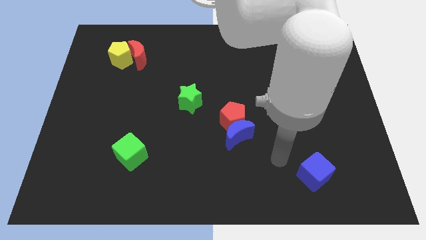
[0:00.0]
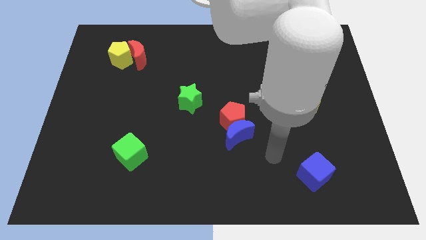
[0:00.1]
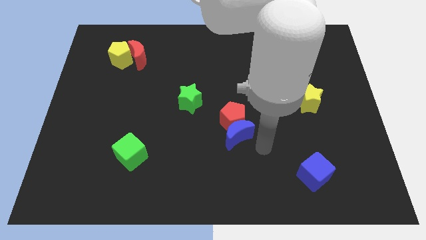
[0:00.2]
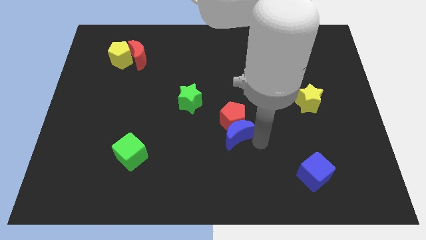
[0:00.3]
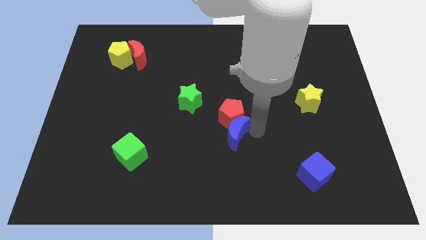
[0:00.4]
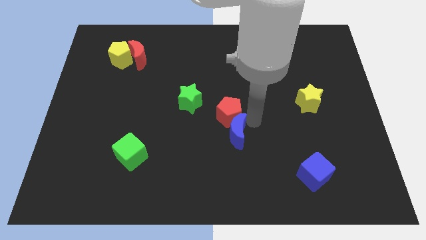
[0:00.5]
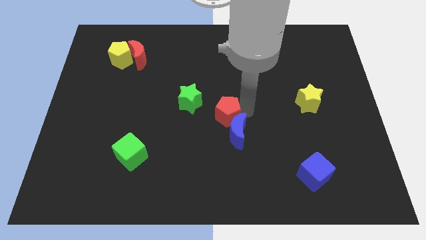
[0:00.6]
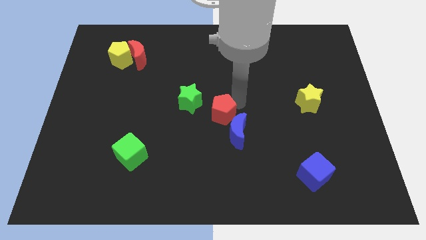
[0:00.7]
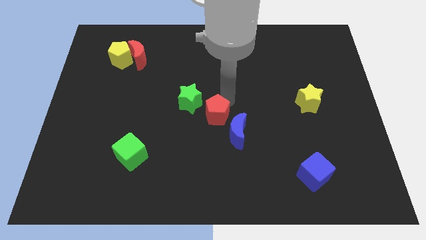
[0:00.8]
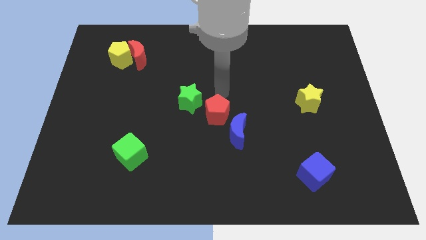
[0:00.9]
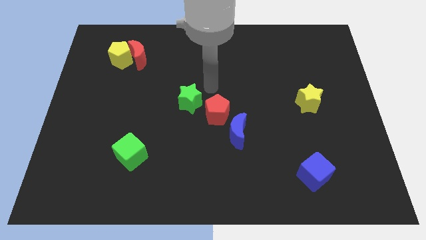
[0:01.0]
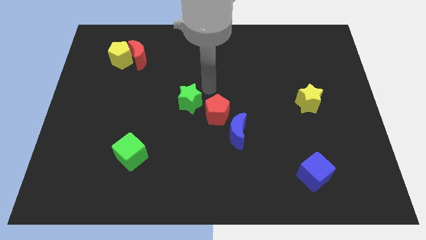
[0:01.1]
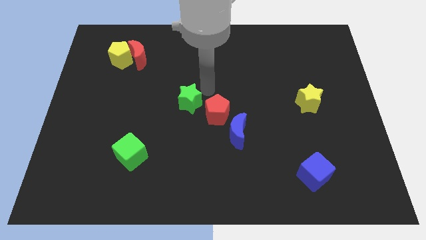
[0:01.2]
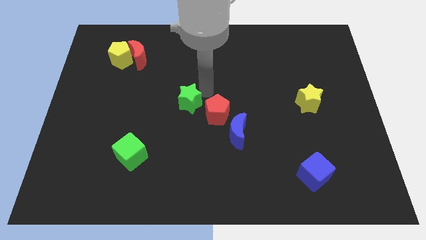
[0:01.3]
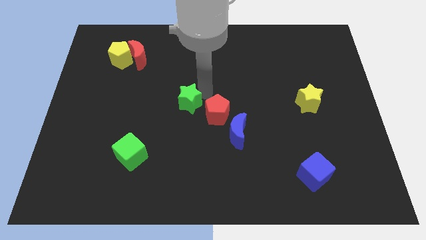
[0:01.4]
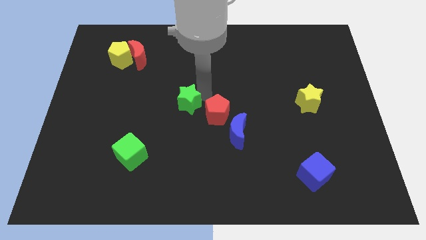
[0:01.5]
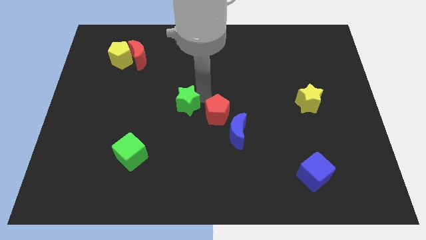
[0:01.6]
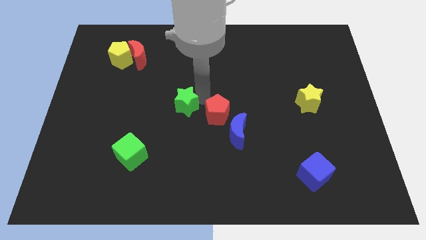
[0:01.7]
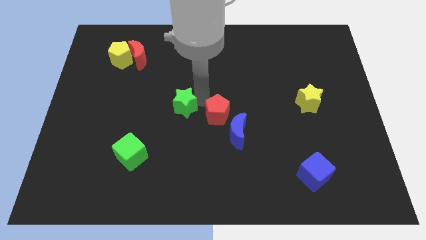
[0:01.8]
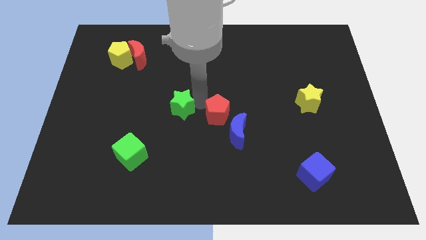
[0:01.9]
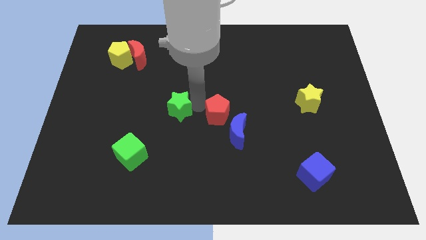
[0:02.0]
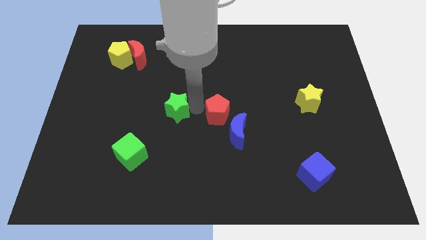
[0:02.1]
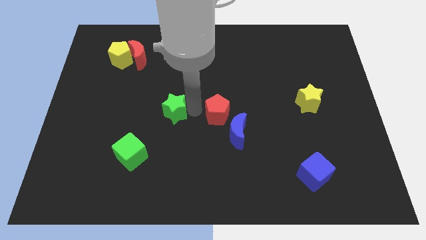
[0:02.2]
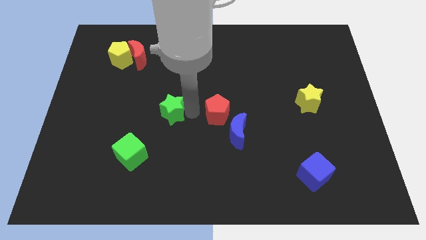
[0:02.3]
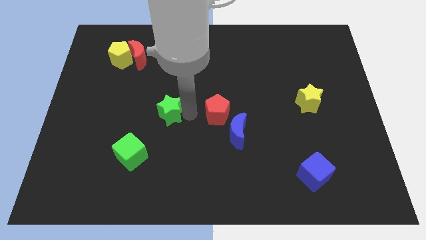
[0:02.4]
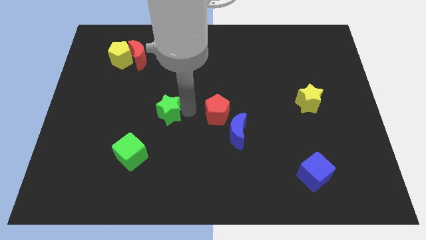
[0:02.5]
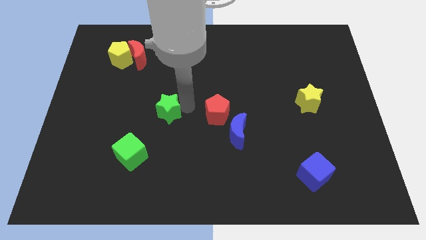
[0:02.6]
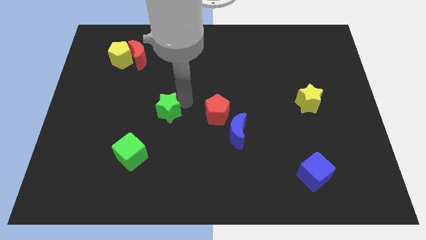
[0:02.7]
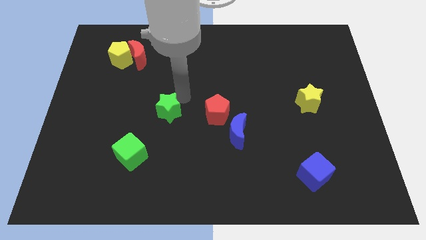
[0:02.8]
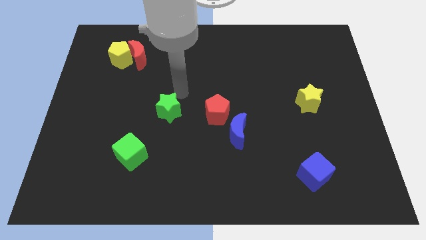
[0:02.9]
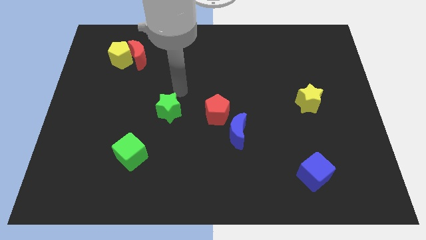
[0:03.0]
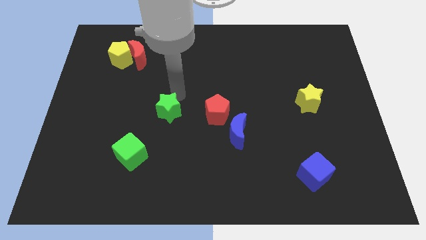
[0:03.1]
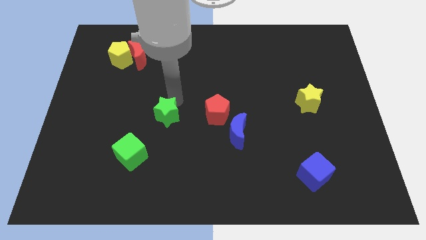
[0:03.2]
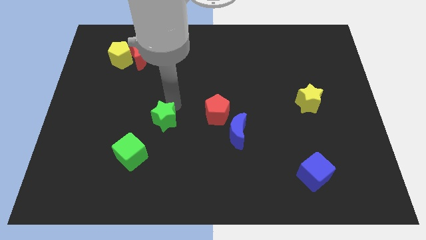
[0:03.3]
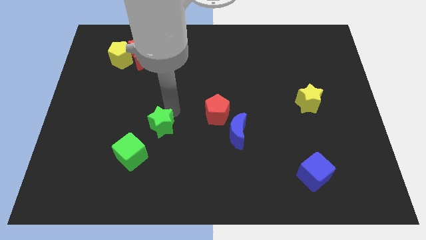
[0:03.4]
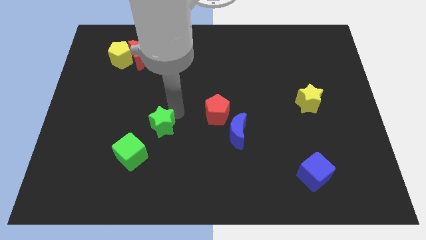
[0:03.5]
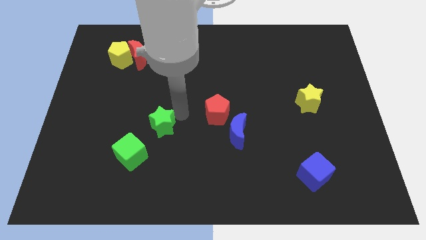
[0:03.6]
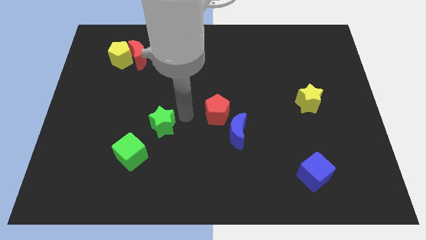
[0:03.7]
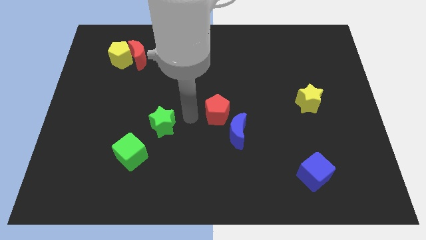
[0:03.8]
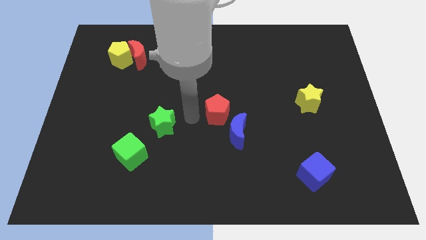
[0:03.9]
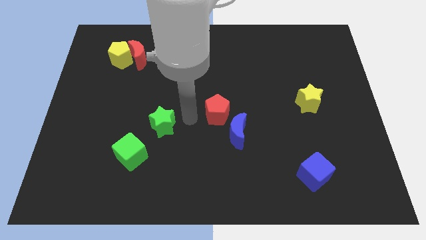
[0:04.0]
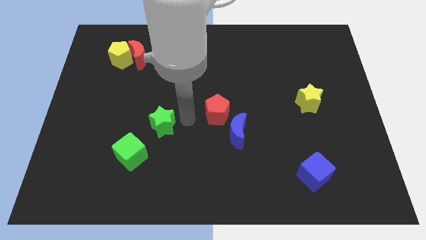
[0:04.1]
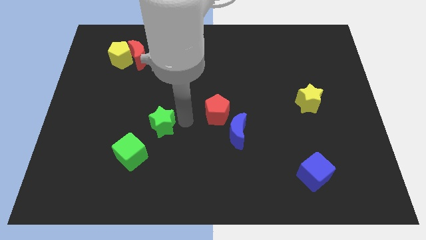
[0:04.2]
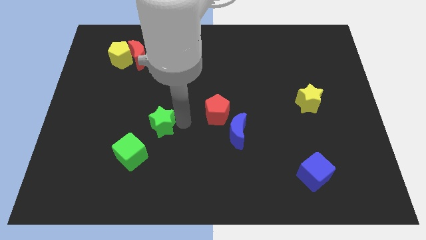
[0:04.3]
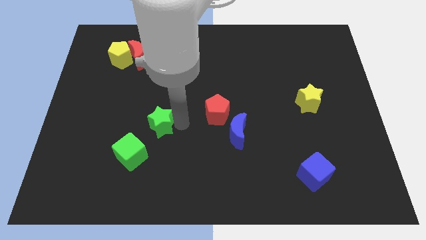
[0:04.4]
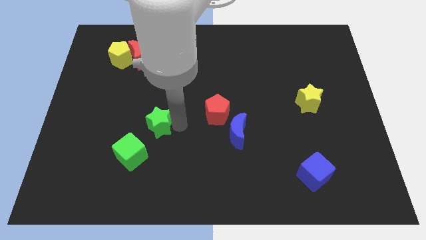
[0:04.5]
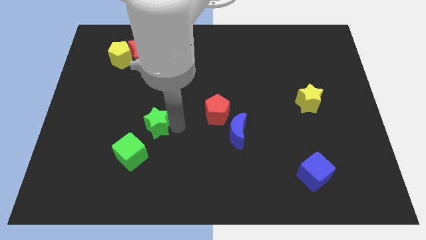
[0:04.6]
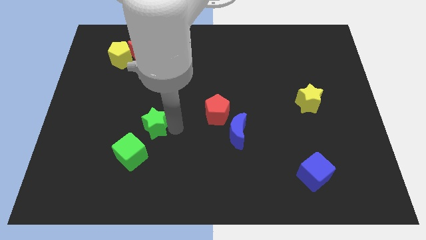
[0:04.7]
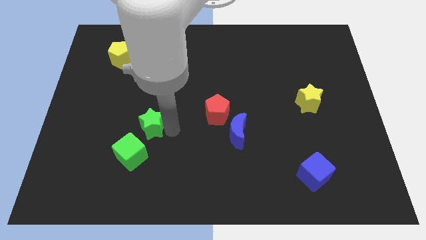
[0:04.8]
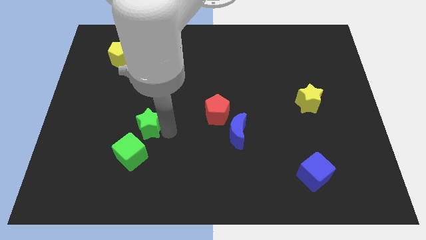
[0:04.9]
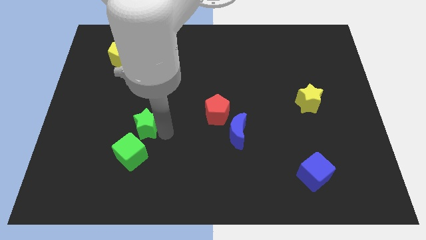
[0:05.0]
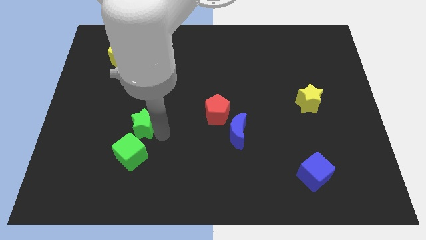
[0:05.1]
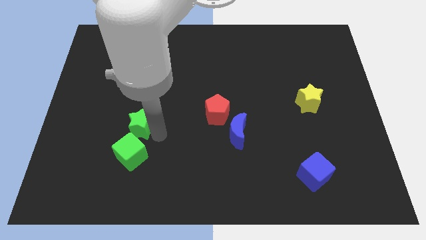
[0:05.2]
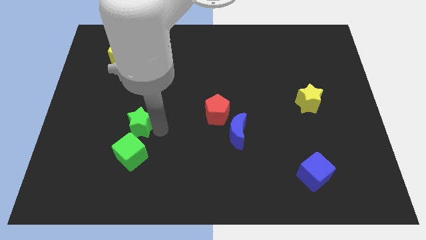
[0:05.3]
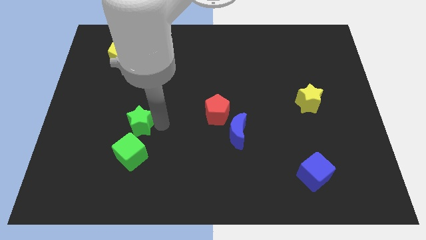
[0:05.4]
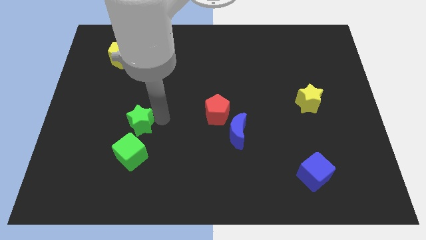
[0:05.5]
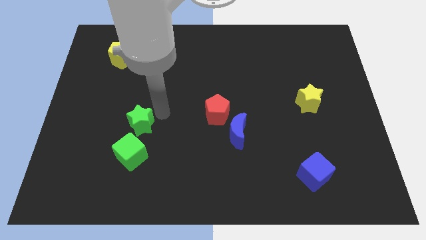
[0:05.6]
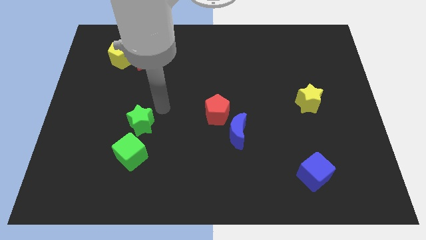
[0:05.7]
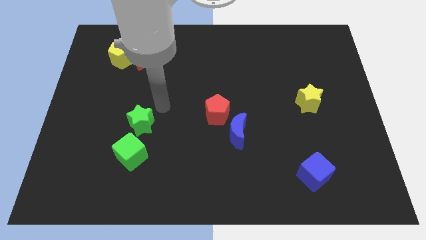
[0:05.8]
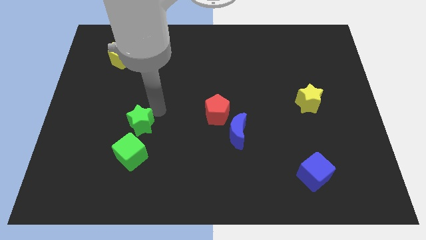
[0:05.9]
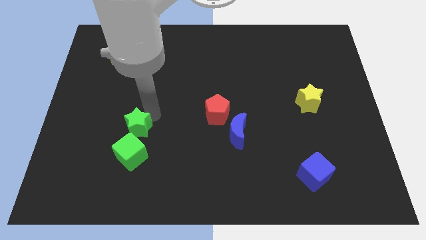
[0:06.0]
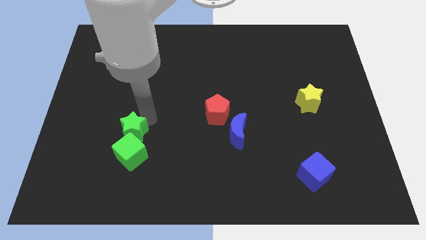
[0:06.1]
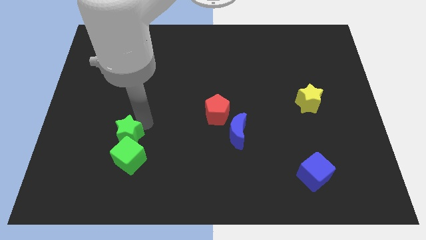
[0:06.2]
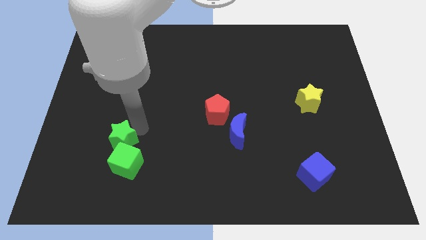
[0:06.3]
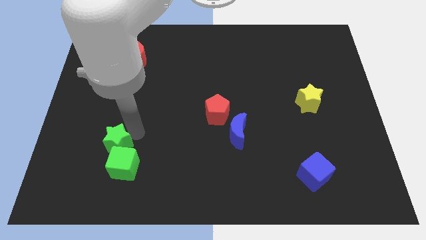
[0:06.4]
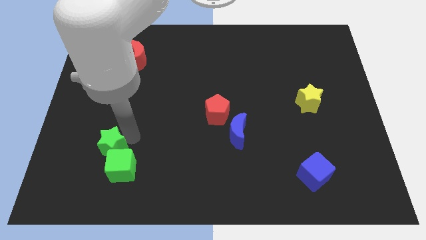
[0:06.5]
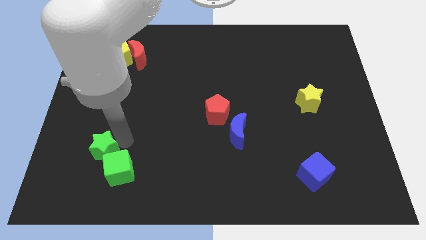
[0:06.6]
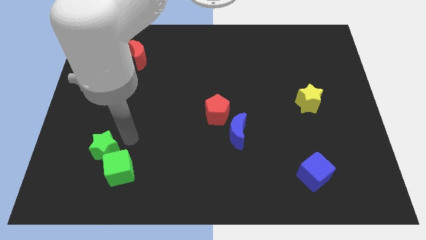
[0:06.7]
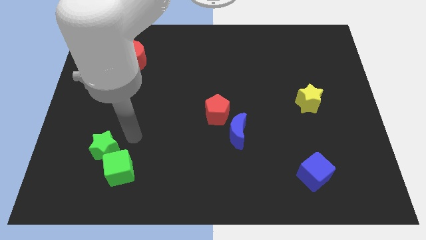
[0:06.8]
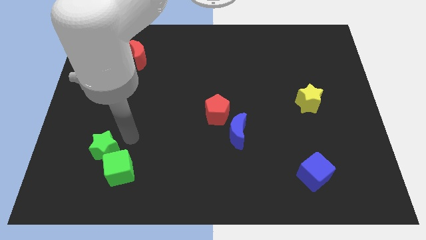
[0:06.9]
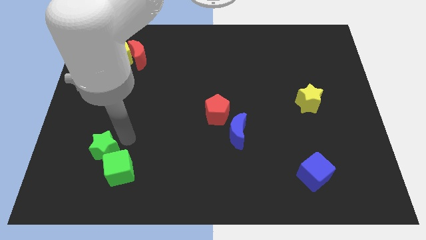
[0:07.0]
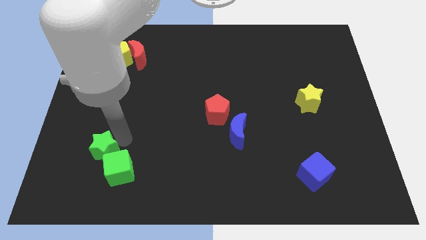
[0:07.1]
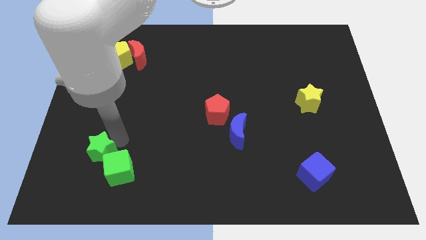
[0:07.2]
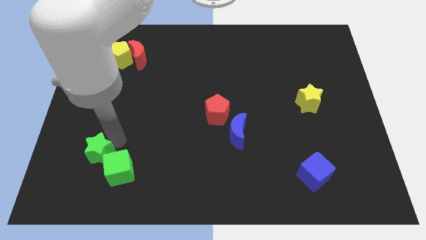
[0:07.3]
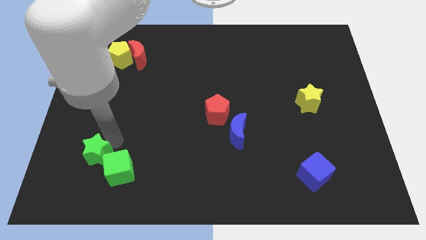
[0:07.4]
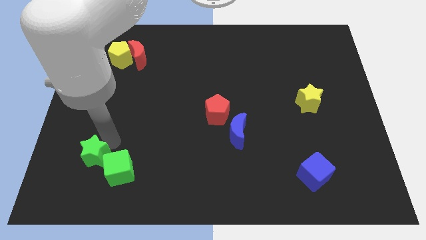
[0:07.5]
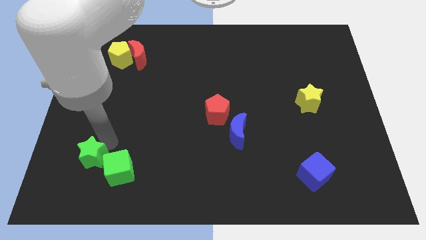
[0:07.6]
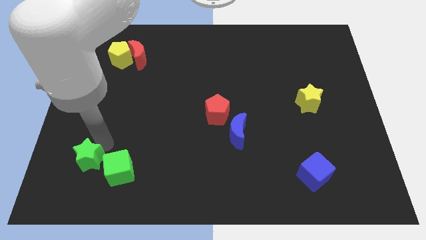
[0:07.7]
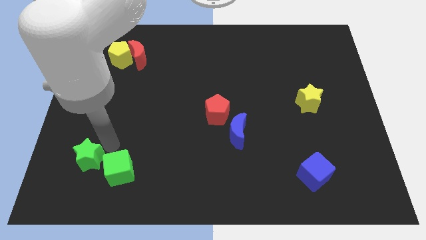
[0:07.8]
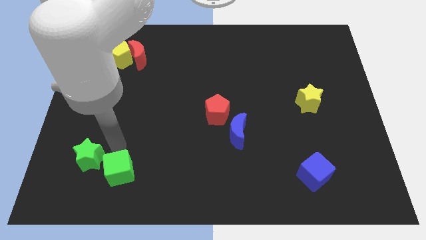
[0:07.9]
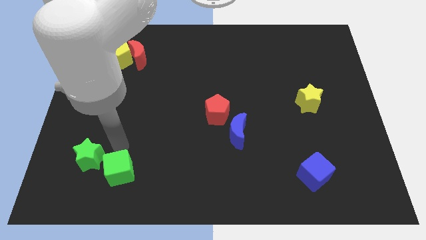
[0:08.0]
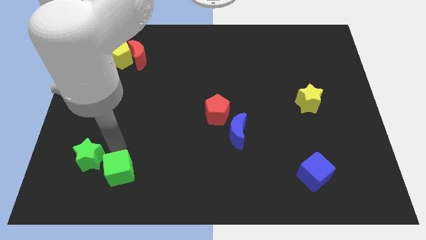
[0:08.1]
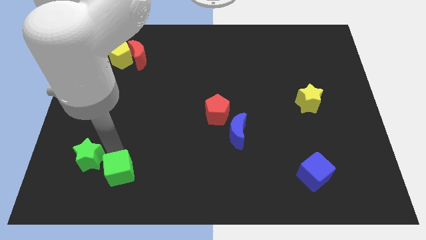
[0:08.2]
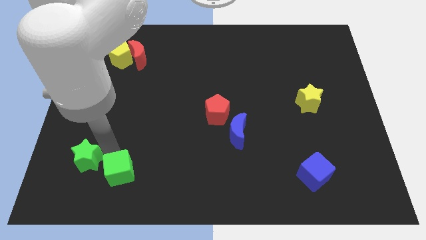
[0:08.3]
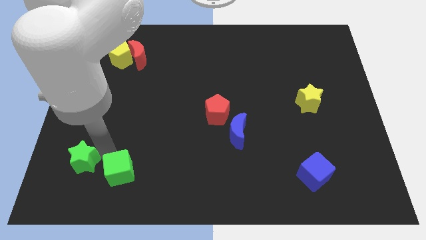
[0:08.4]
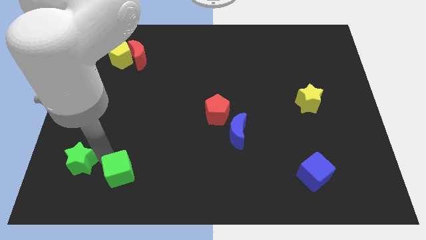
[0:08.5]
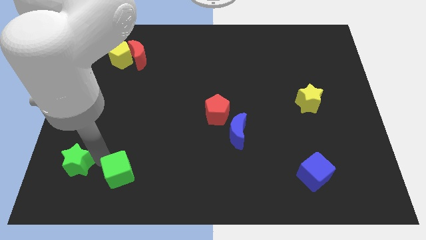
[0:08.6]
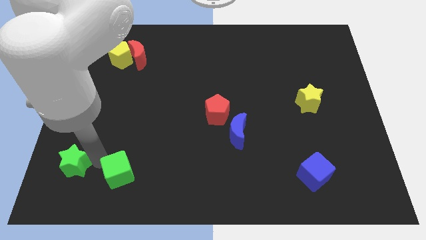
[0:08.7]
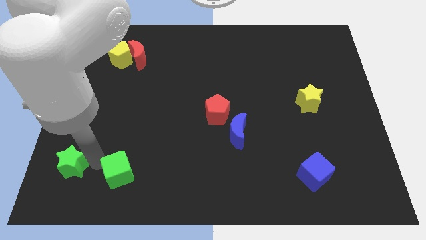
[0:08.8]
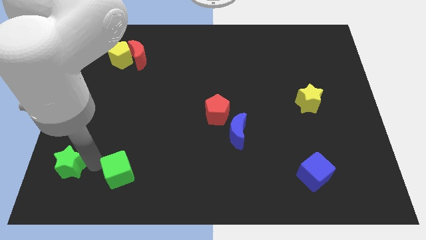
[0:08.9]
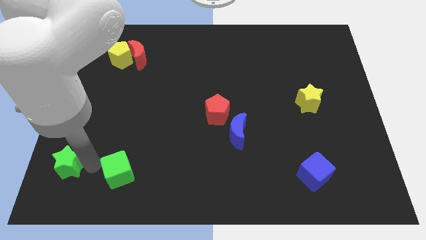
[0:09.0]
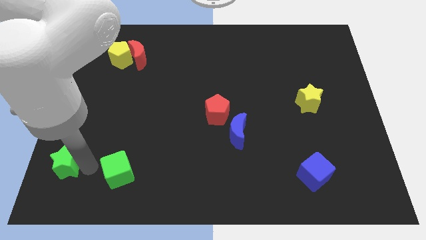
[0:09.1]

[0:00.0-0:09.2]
put the green star to the bottom left
